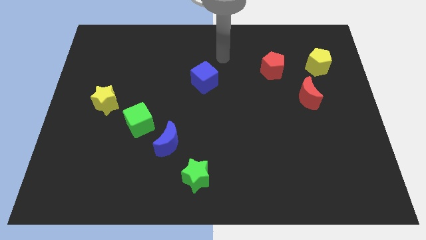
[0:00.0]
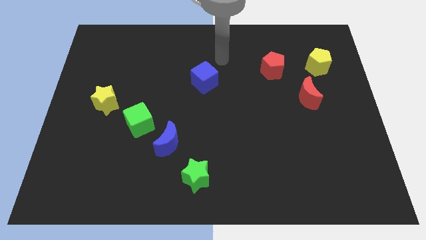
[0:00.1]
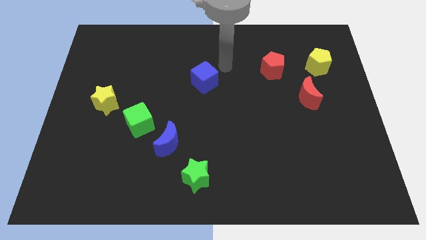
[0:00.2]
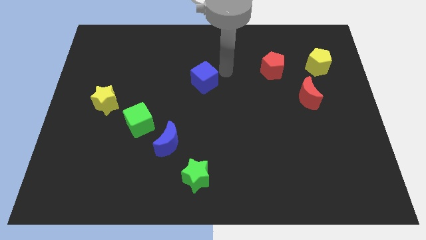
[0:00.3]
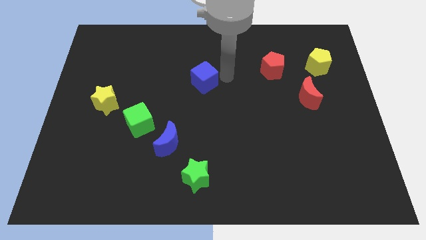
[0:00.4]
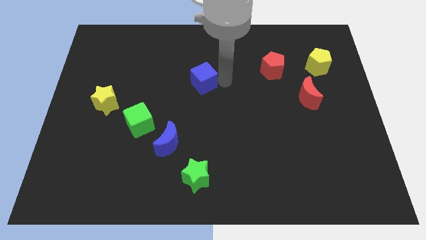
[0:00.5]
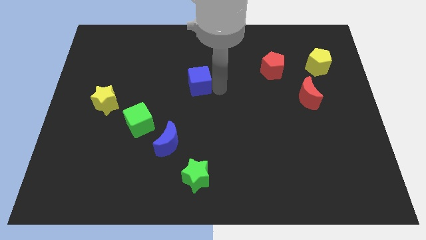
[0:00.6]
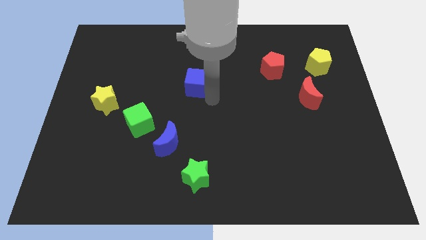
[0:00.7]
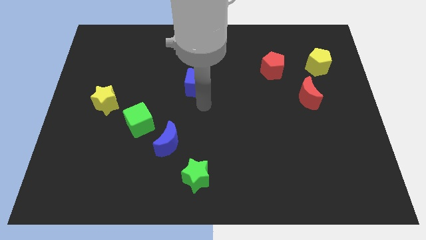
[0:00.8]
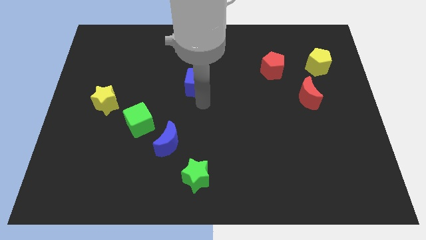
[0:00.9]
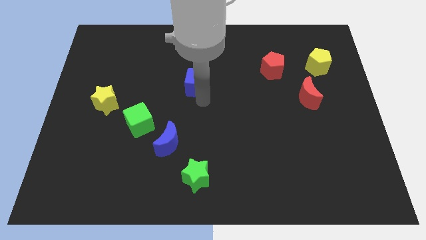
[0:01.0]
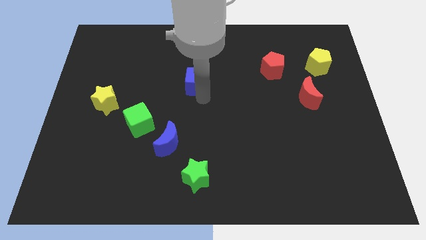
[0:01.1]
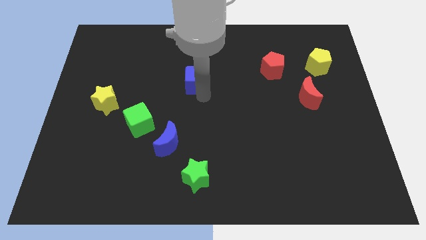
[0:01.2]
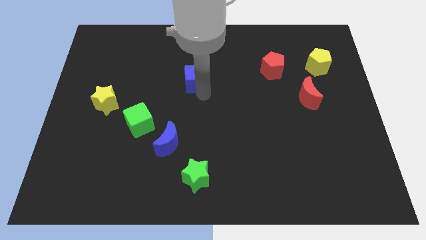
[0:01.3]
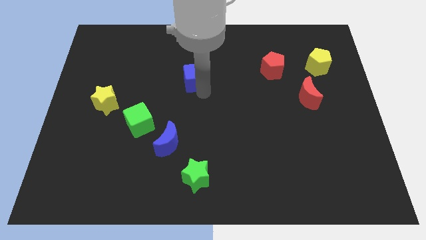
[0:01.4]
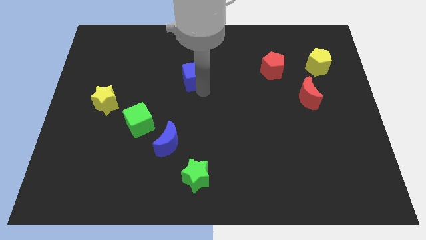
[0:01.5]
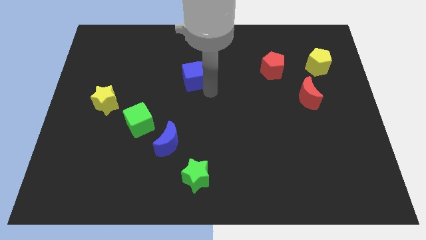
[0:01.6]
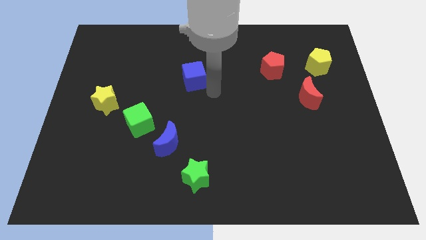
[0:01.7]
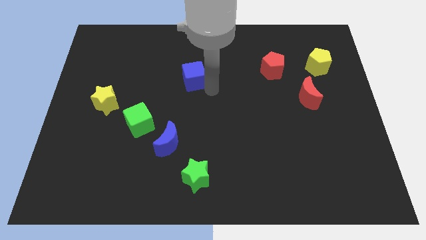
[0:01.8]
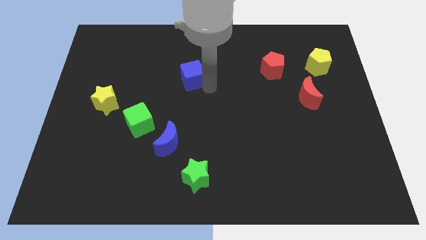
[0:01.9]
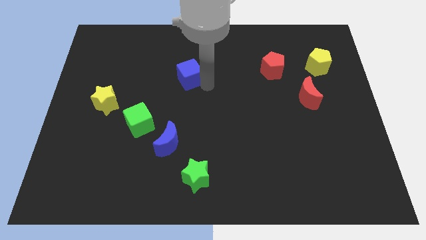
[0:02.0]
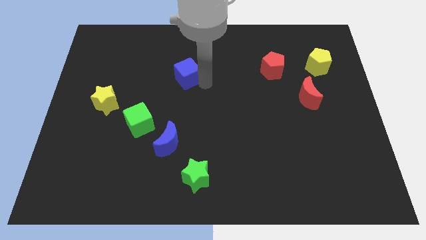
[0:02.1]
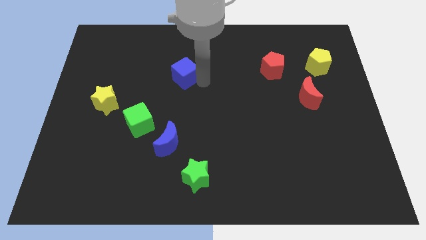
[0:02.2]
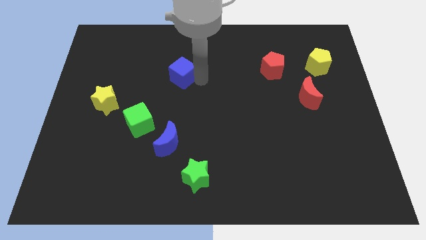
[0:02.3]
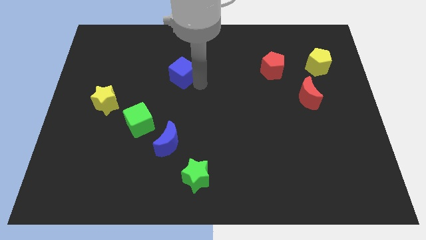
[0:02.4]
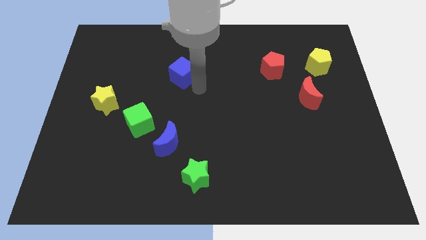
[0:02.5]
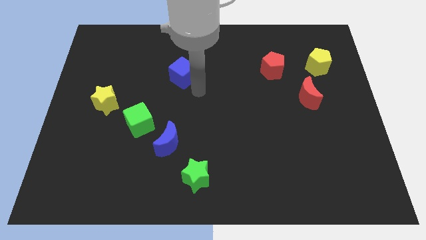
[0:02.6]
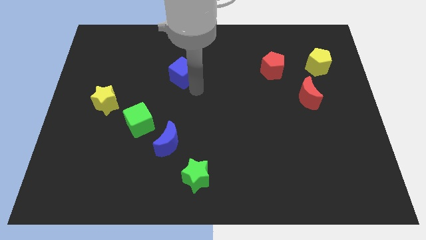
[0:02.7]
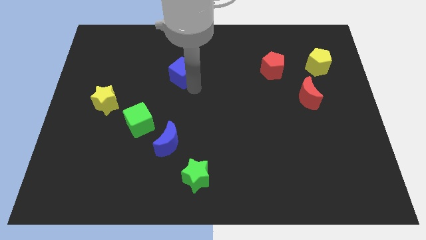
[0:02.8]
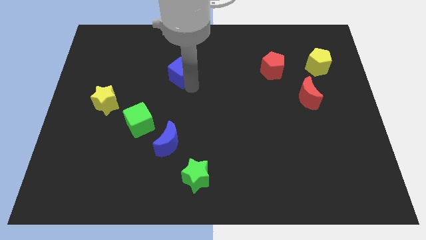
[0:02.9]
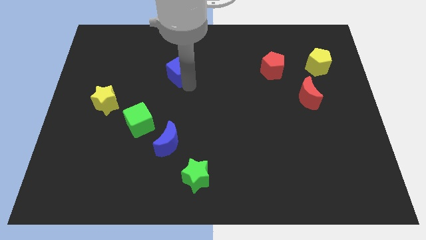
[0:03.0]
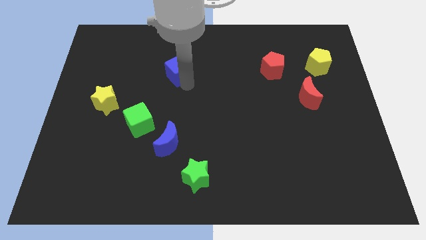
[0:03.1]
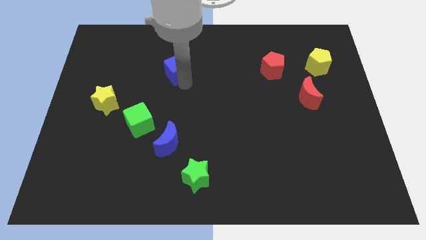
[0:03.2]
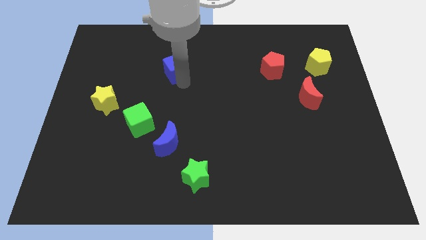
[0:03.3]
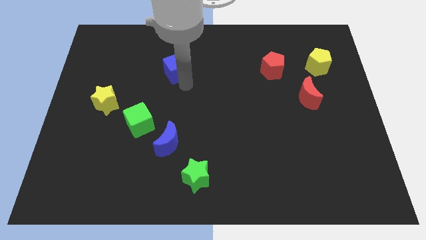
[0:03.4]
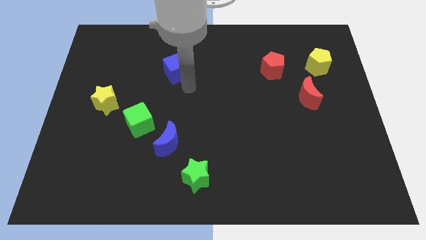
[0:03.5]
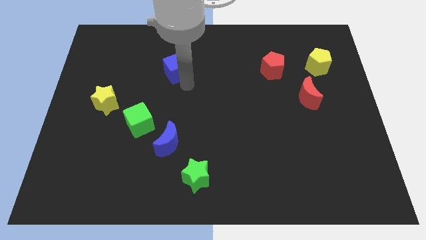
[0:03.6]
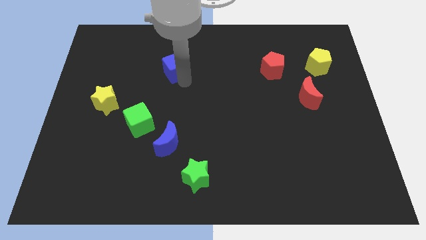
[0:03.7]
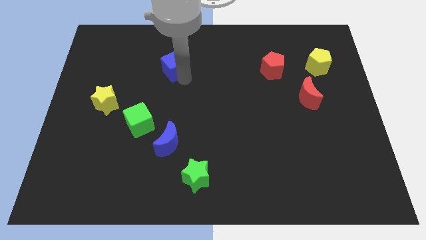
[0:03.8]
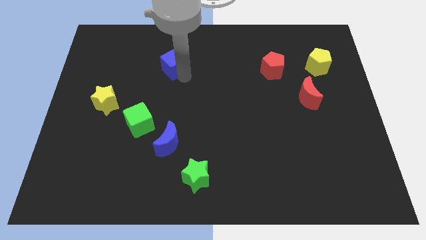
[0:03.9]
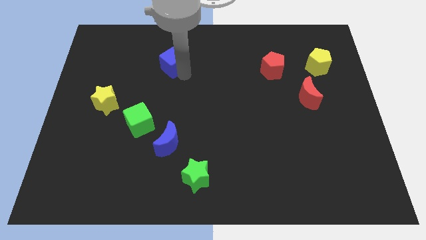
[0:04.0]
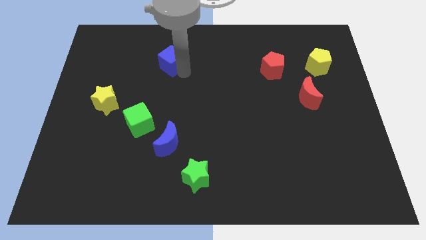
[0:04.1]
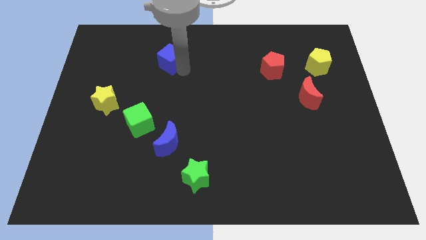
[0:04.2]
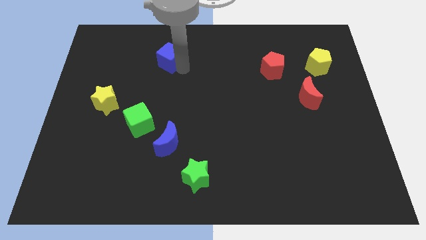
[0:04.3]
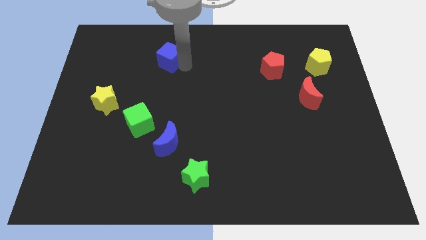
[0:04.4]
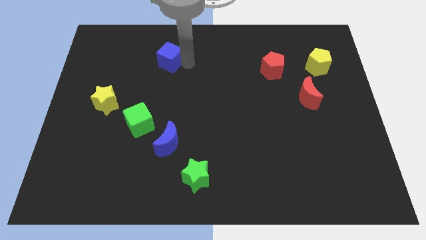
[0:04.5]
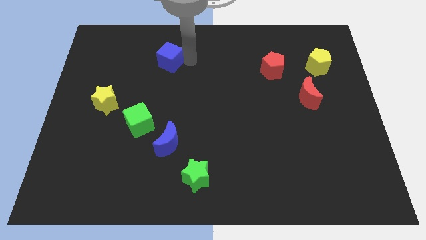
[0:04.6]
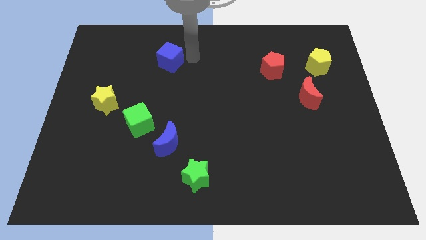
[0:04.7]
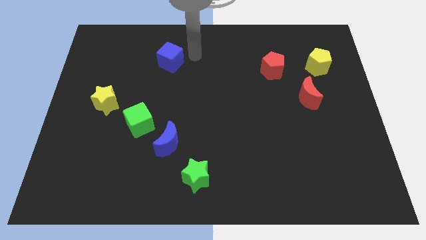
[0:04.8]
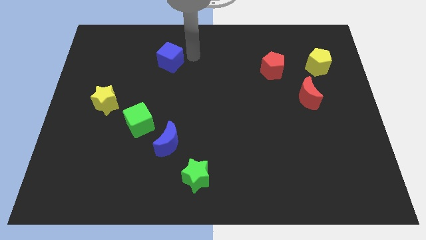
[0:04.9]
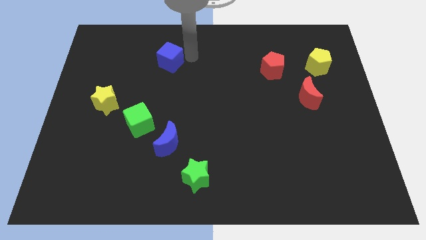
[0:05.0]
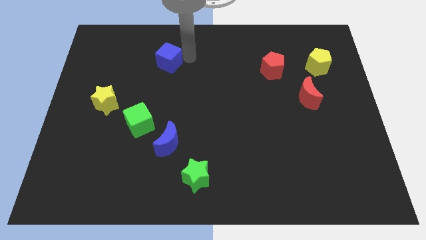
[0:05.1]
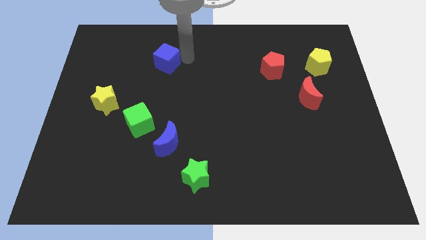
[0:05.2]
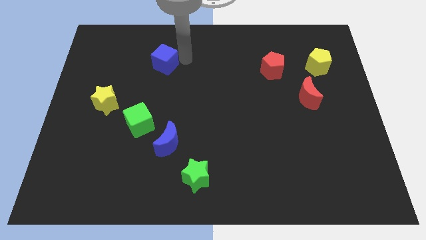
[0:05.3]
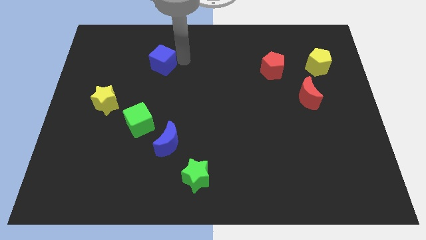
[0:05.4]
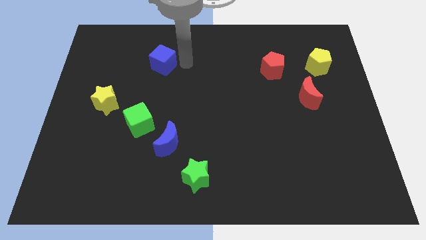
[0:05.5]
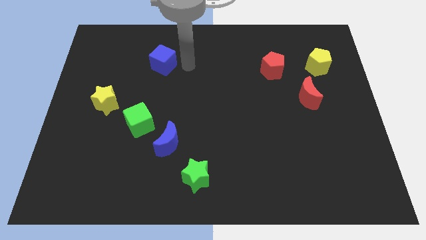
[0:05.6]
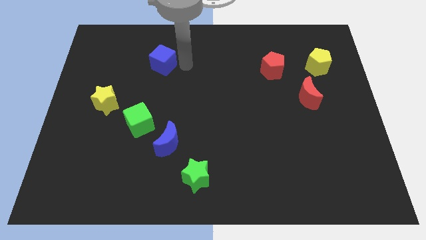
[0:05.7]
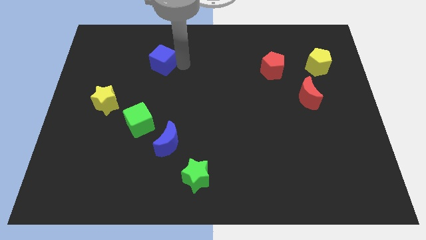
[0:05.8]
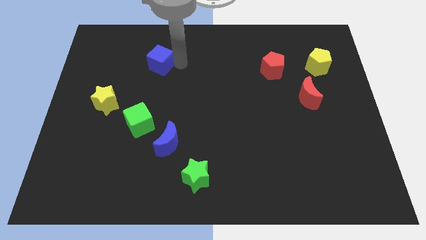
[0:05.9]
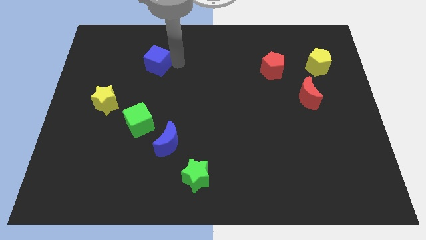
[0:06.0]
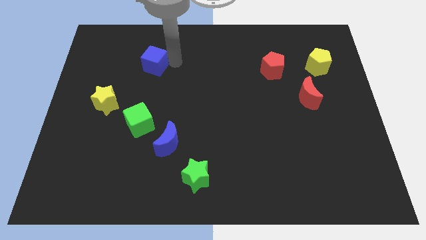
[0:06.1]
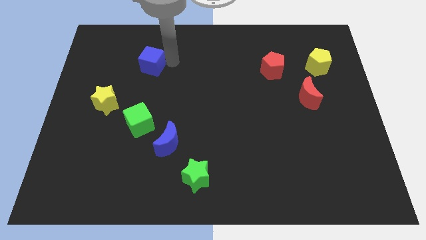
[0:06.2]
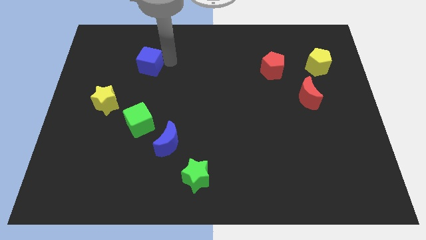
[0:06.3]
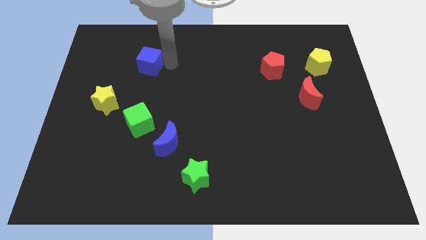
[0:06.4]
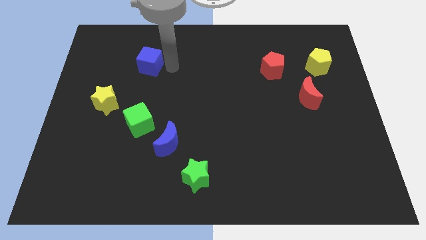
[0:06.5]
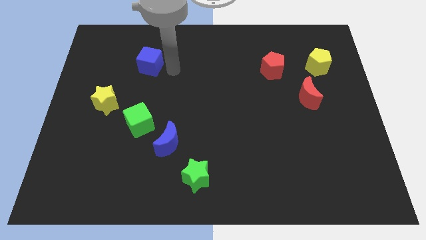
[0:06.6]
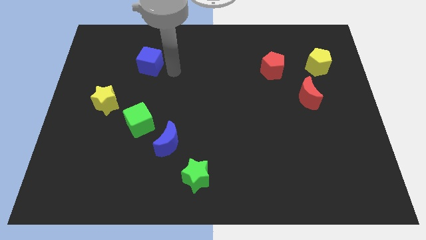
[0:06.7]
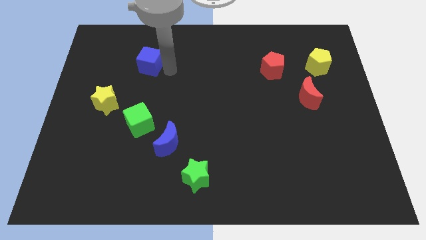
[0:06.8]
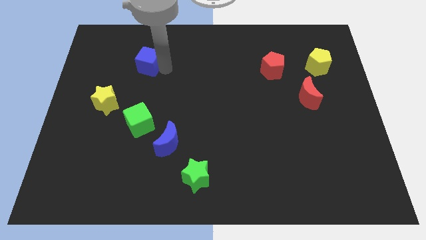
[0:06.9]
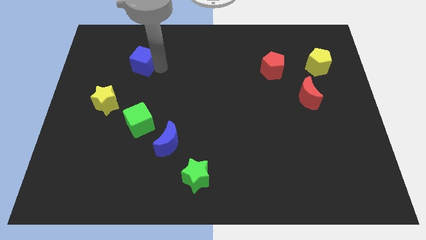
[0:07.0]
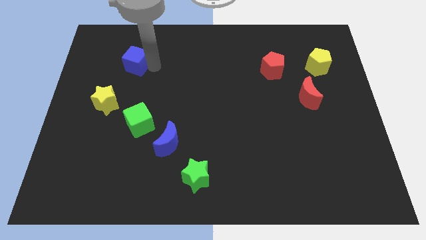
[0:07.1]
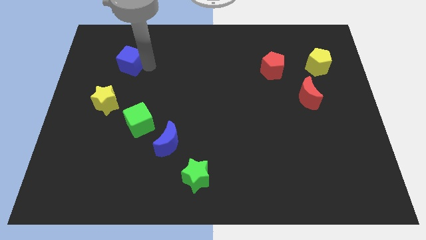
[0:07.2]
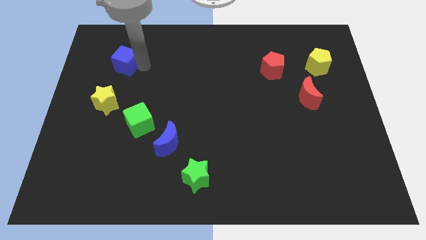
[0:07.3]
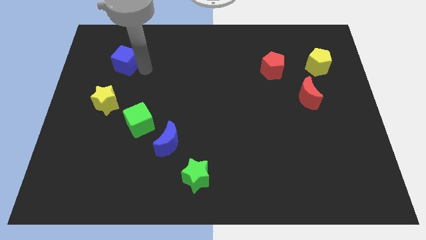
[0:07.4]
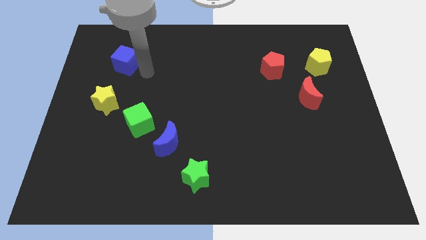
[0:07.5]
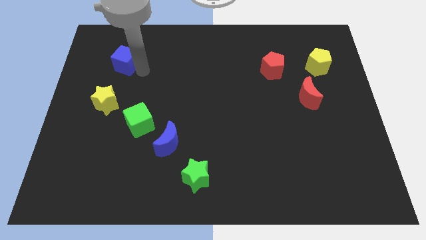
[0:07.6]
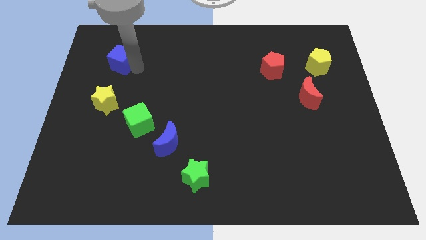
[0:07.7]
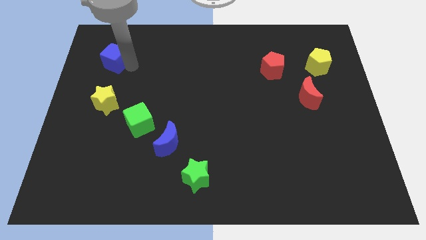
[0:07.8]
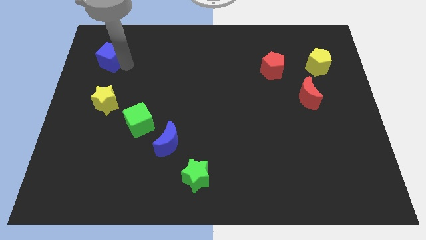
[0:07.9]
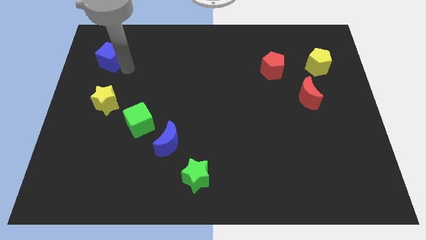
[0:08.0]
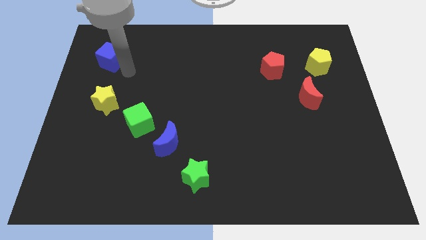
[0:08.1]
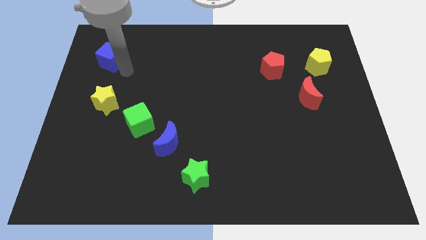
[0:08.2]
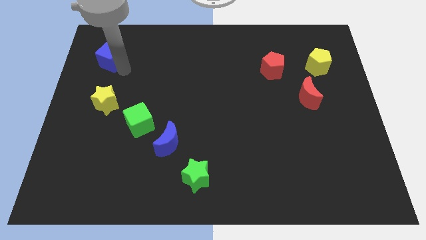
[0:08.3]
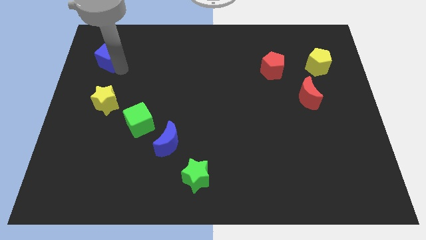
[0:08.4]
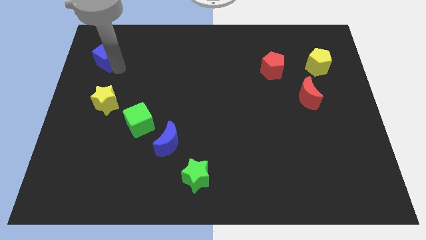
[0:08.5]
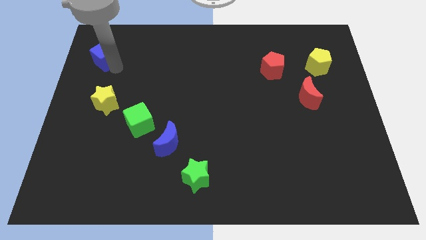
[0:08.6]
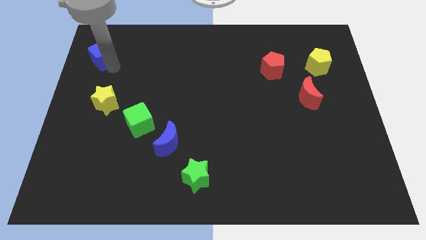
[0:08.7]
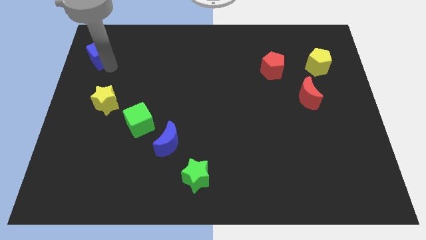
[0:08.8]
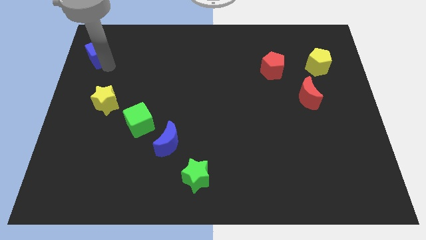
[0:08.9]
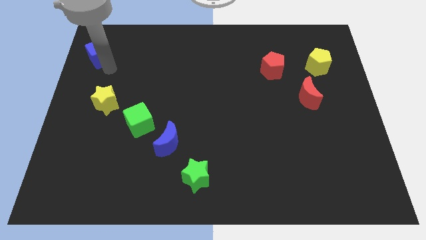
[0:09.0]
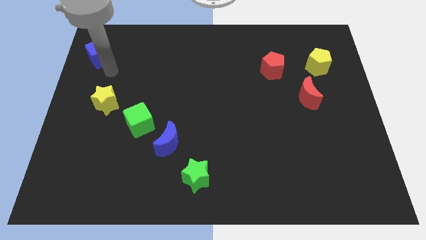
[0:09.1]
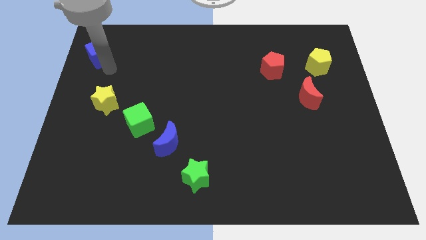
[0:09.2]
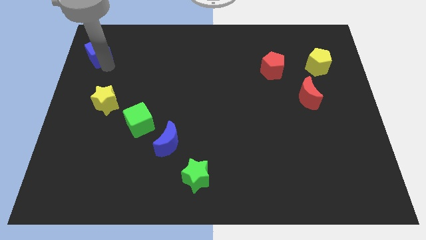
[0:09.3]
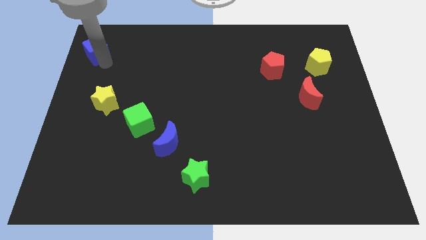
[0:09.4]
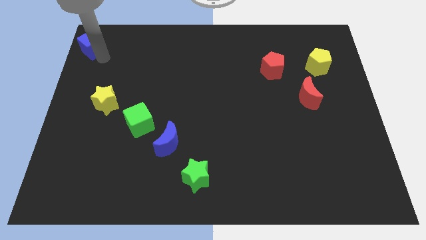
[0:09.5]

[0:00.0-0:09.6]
move the blue cube to the top left
